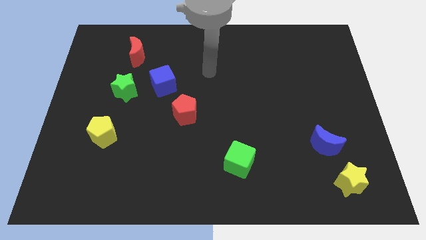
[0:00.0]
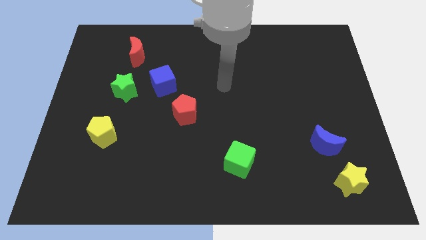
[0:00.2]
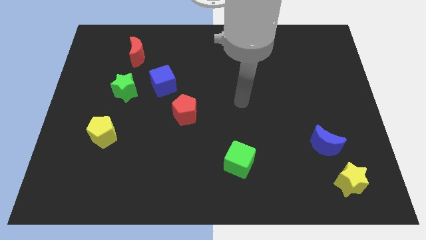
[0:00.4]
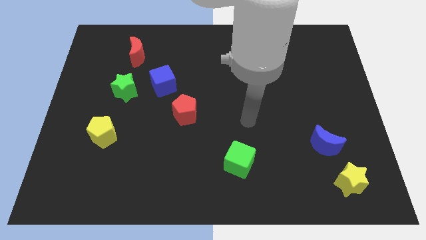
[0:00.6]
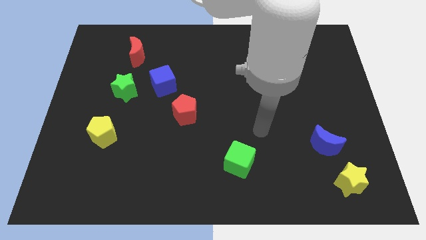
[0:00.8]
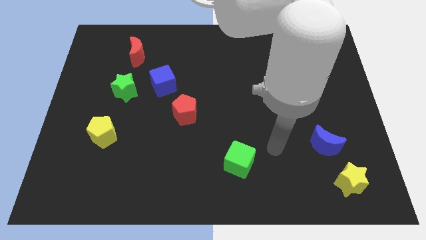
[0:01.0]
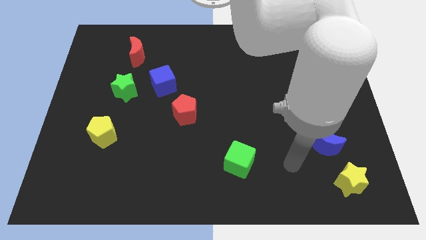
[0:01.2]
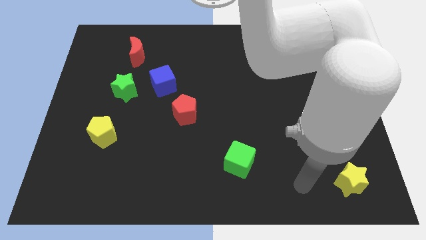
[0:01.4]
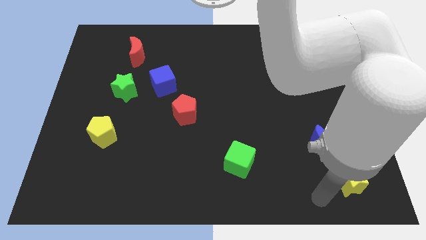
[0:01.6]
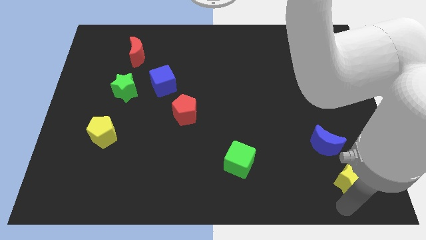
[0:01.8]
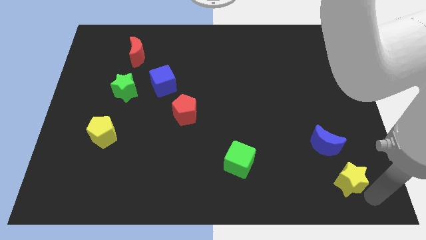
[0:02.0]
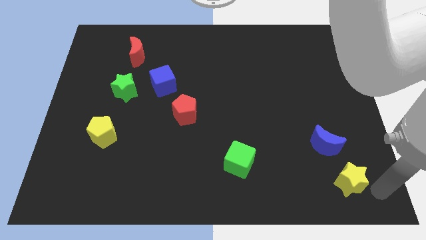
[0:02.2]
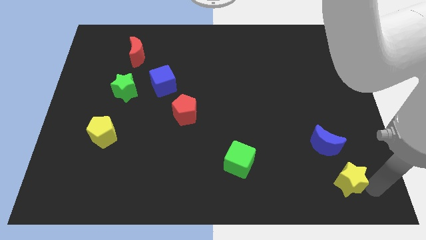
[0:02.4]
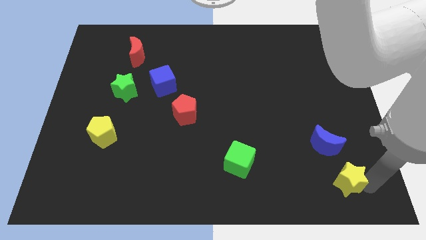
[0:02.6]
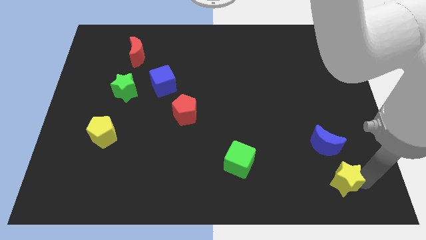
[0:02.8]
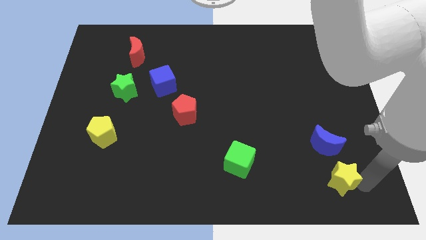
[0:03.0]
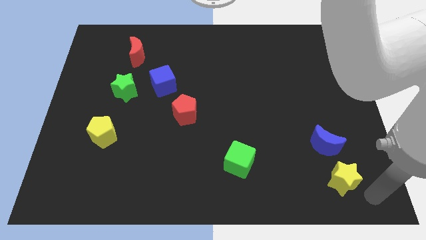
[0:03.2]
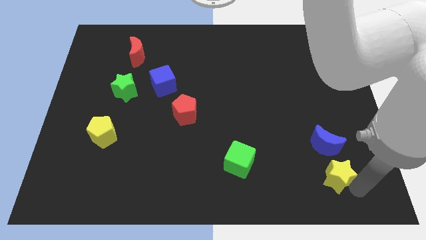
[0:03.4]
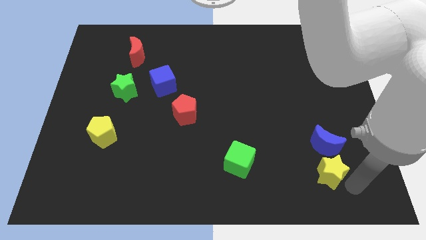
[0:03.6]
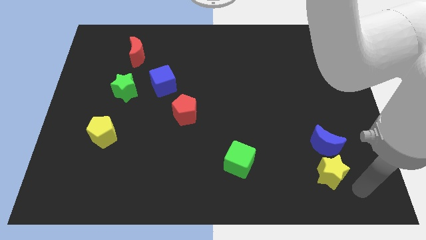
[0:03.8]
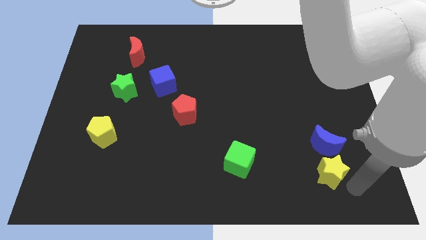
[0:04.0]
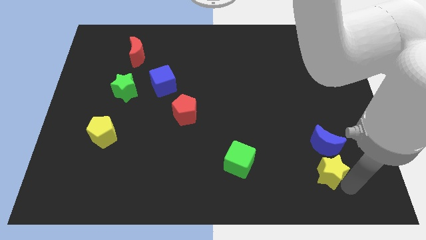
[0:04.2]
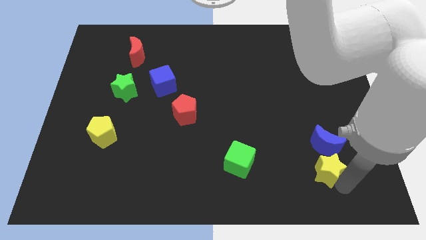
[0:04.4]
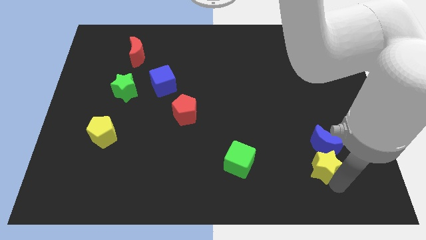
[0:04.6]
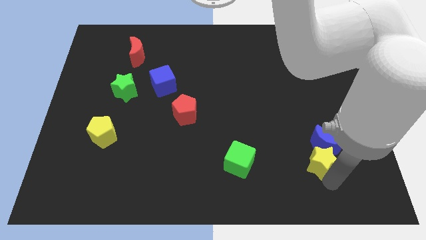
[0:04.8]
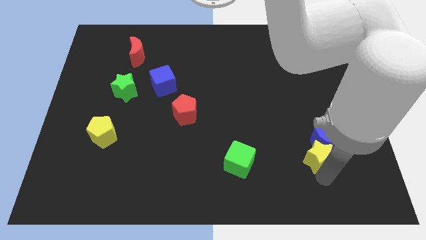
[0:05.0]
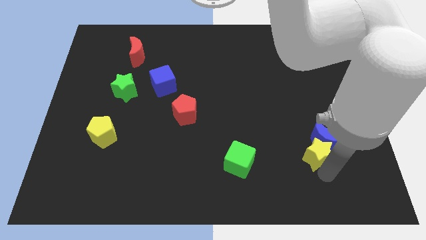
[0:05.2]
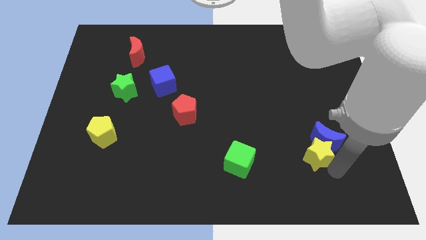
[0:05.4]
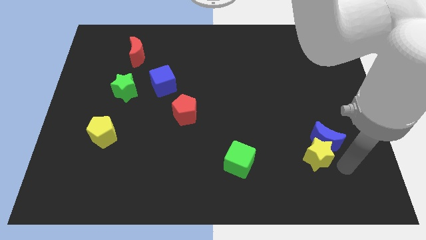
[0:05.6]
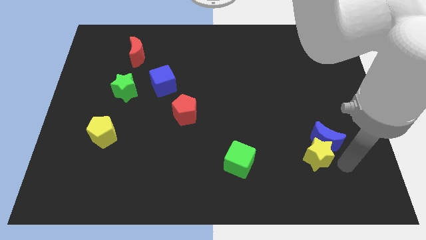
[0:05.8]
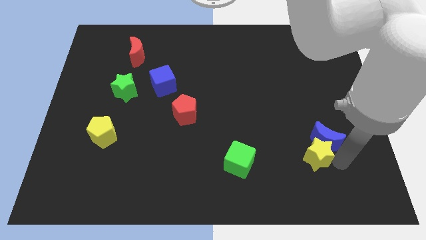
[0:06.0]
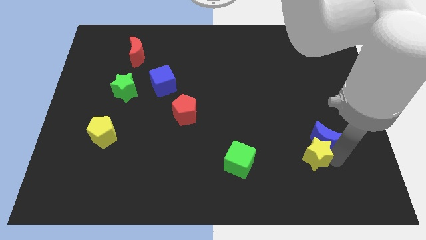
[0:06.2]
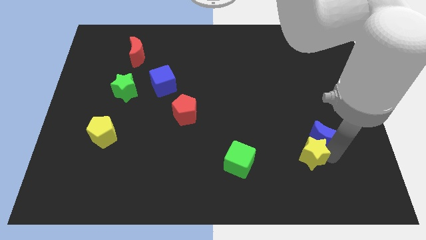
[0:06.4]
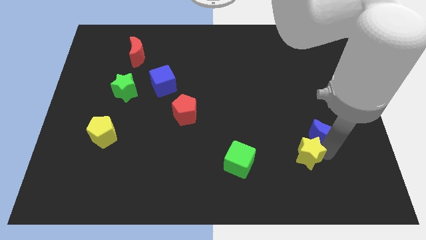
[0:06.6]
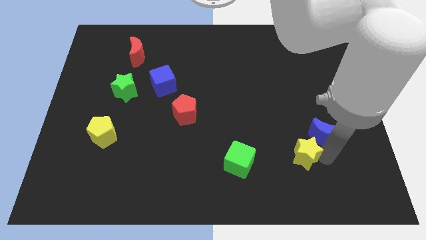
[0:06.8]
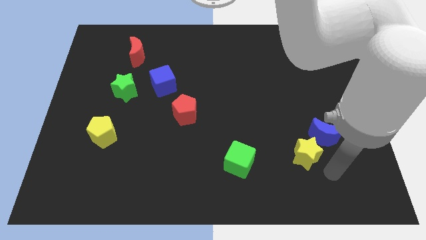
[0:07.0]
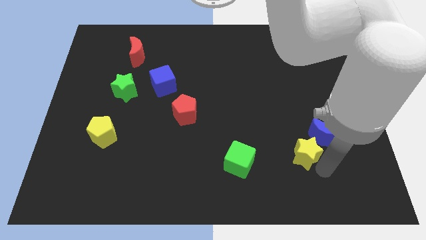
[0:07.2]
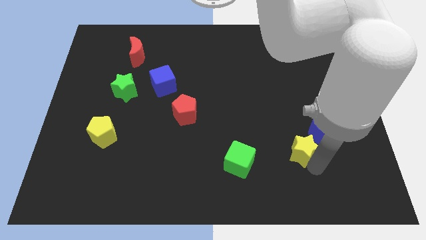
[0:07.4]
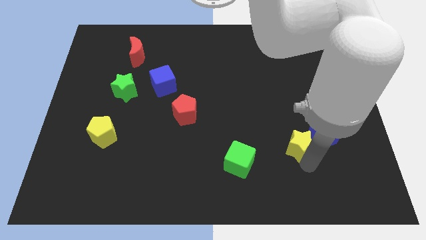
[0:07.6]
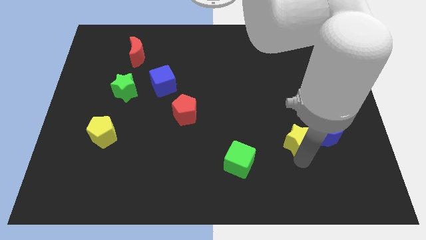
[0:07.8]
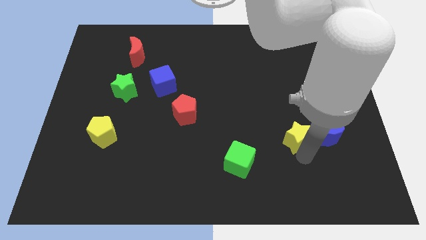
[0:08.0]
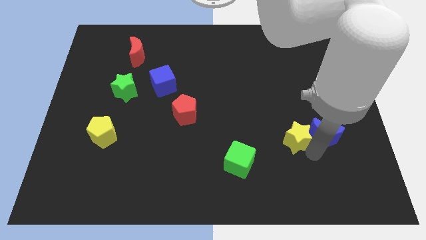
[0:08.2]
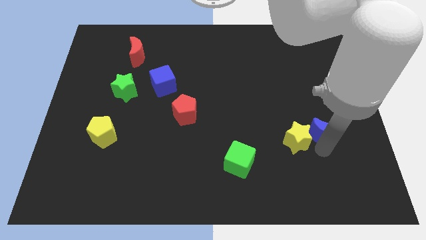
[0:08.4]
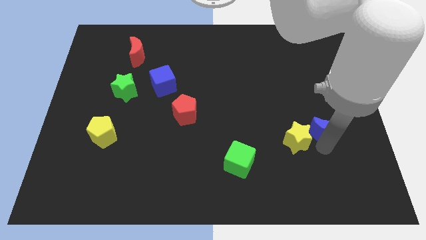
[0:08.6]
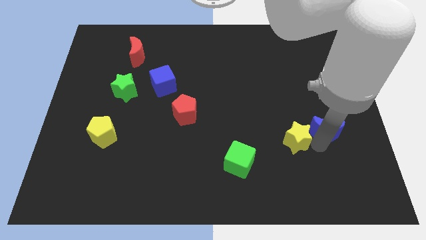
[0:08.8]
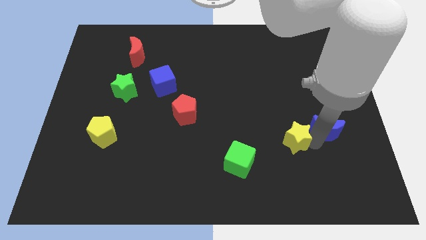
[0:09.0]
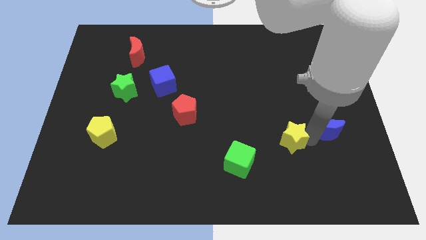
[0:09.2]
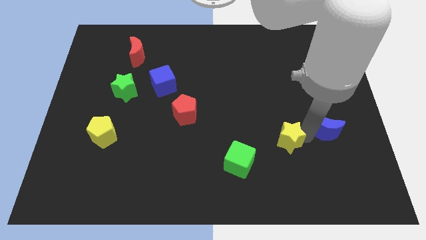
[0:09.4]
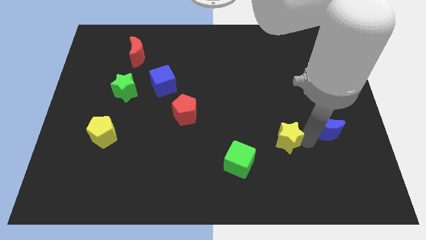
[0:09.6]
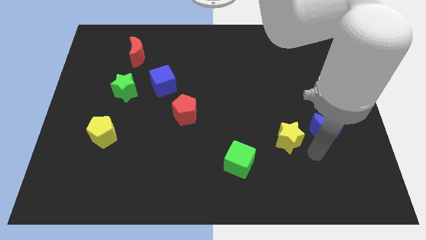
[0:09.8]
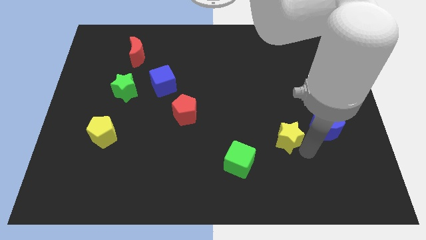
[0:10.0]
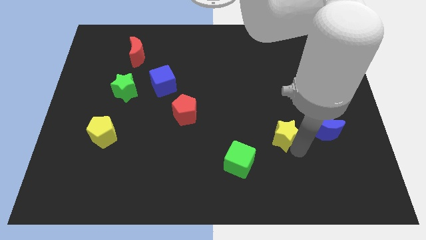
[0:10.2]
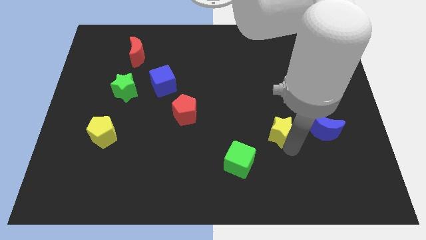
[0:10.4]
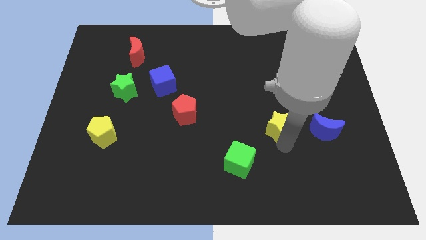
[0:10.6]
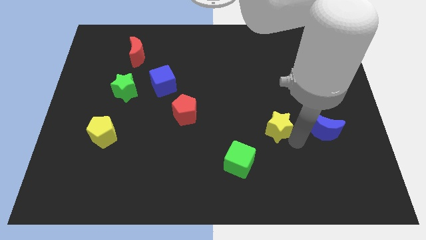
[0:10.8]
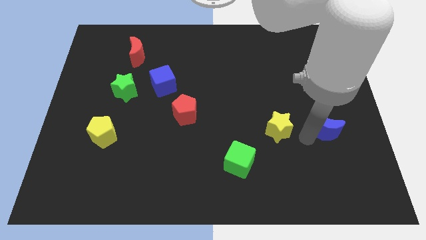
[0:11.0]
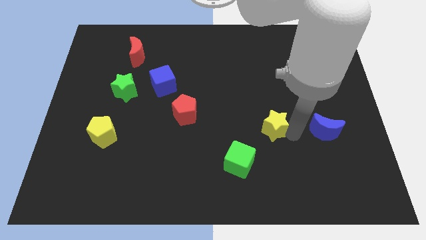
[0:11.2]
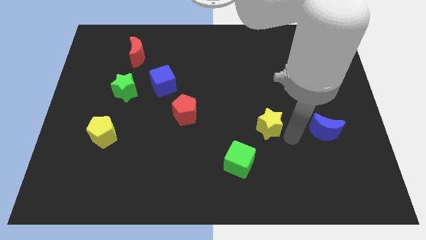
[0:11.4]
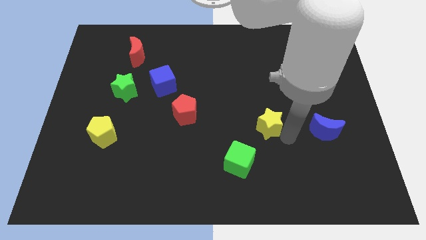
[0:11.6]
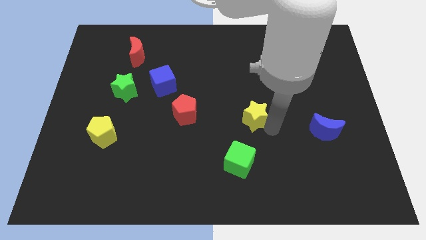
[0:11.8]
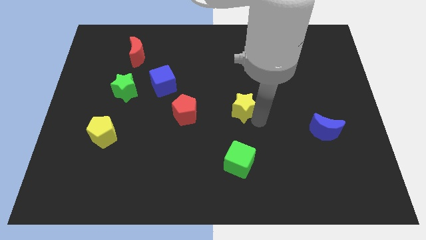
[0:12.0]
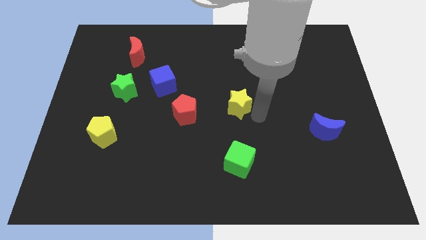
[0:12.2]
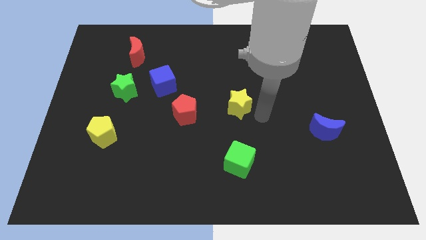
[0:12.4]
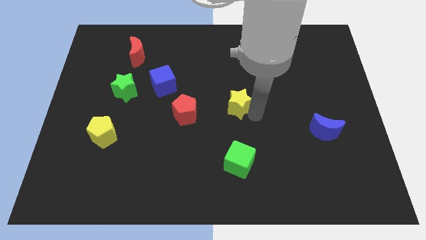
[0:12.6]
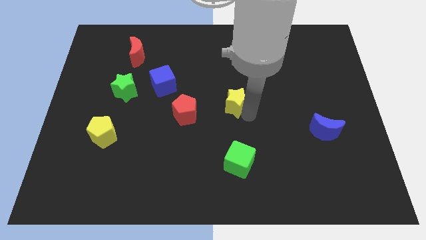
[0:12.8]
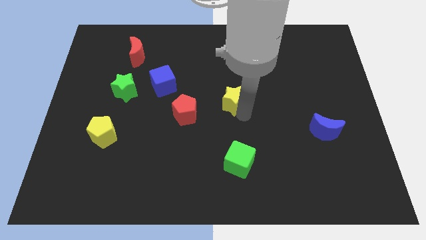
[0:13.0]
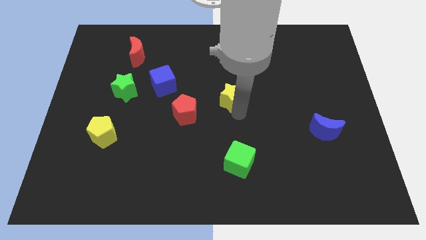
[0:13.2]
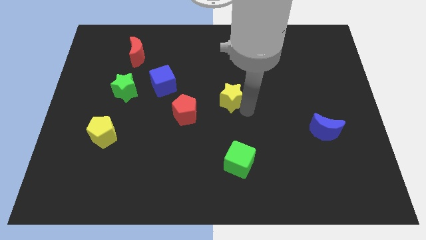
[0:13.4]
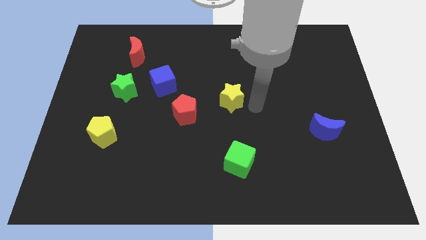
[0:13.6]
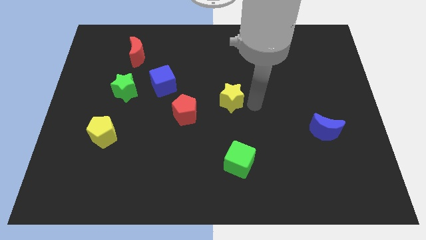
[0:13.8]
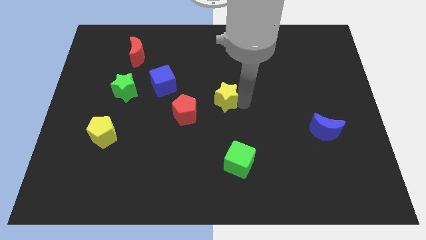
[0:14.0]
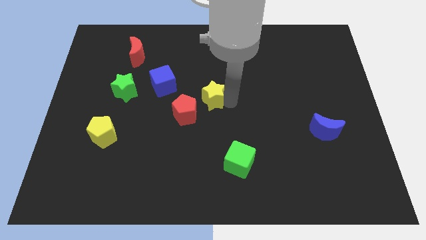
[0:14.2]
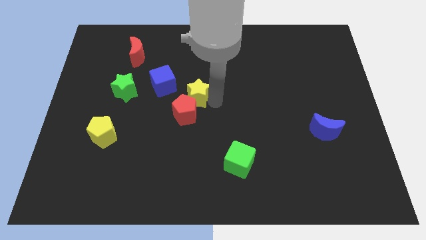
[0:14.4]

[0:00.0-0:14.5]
move the yellow star above the red pentagon
